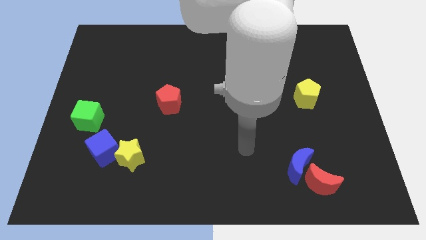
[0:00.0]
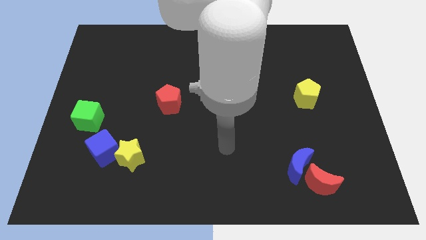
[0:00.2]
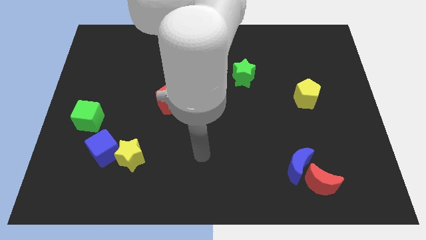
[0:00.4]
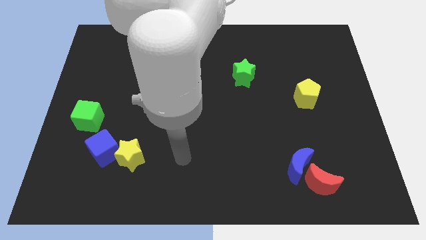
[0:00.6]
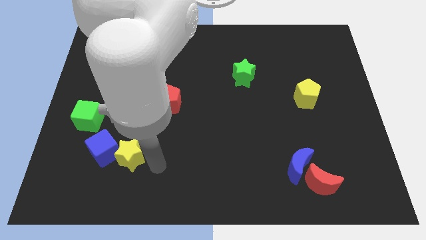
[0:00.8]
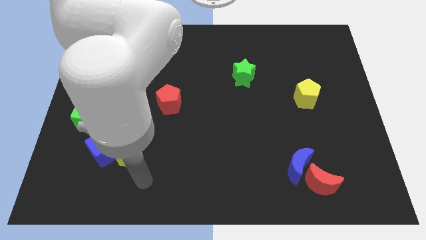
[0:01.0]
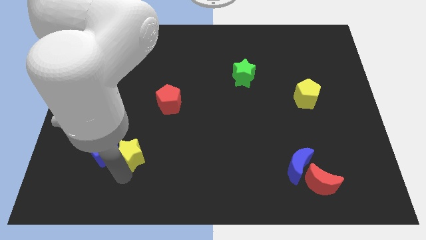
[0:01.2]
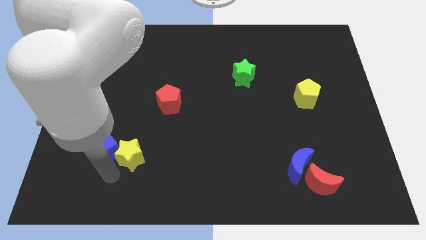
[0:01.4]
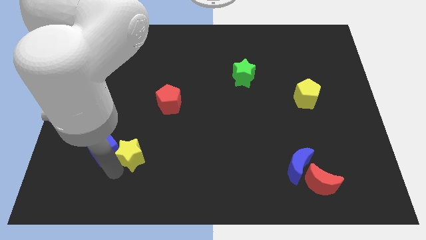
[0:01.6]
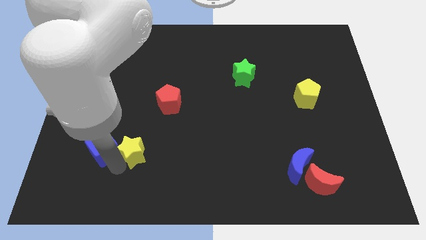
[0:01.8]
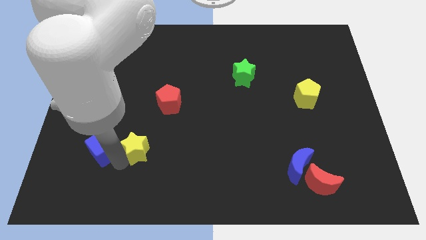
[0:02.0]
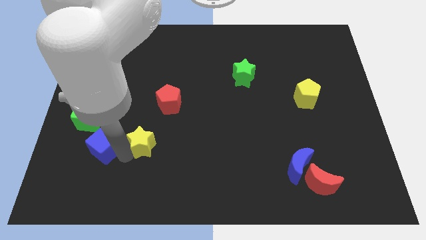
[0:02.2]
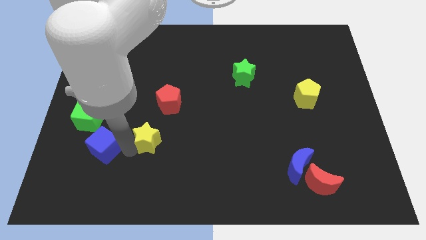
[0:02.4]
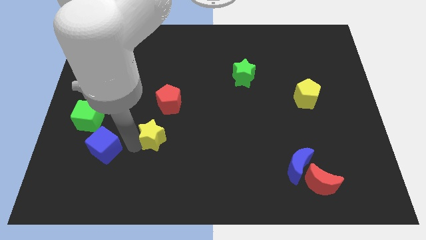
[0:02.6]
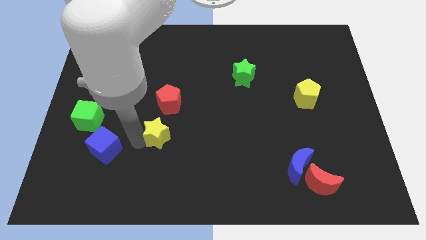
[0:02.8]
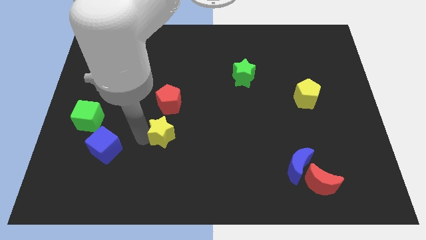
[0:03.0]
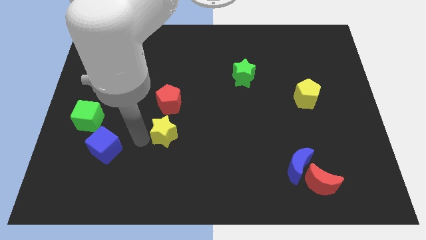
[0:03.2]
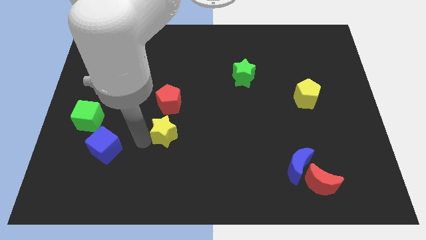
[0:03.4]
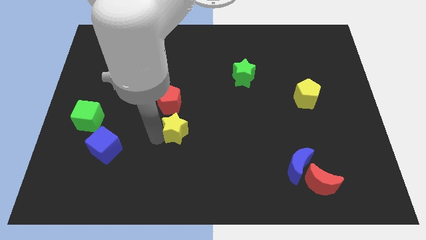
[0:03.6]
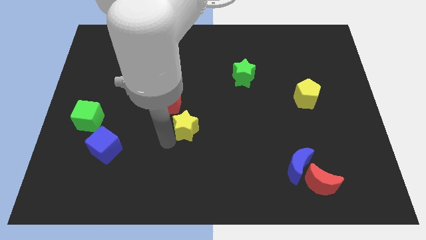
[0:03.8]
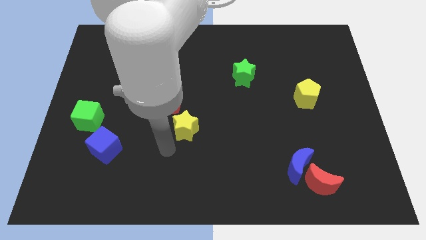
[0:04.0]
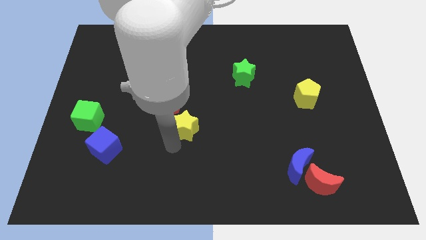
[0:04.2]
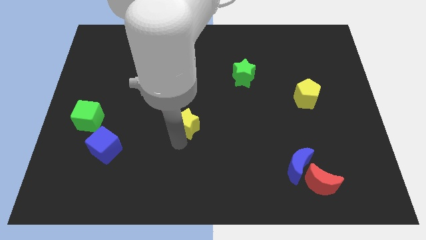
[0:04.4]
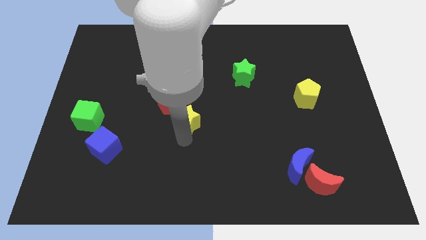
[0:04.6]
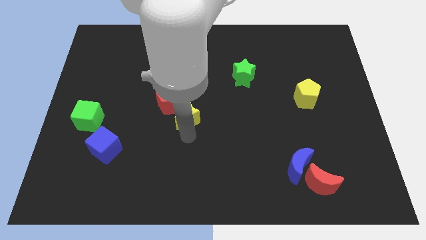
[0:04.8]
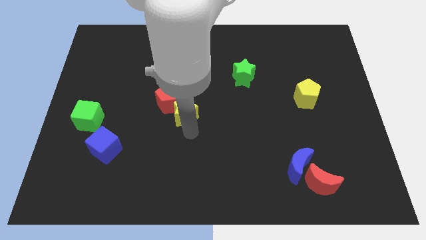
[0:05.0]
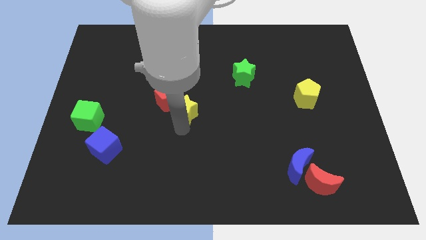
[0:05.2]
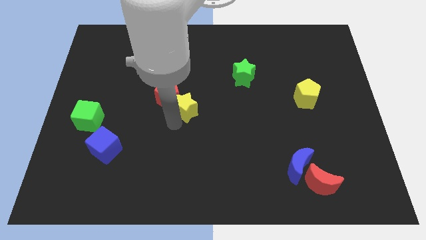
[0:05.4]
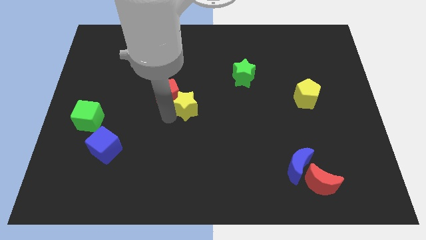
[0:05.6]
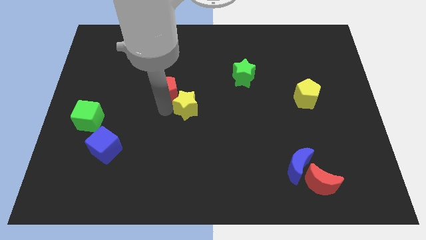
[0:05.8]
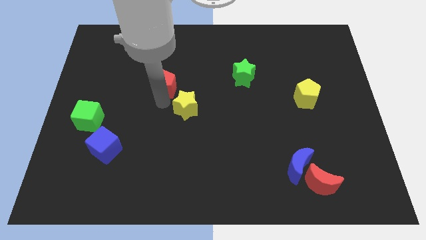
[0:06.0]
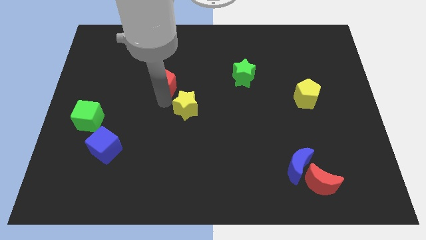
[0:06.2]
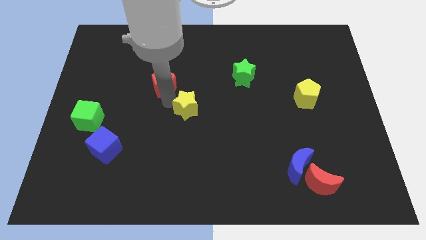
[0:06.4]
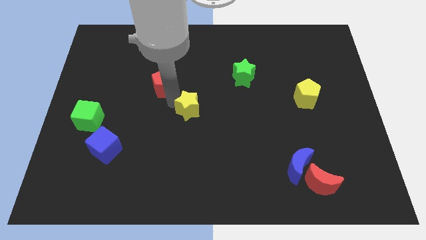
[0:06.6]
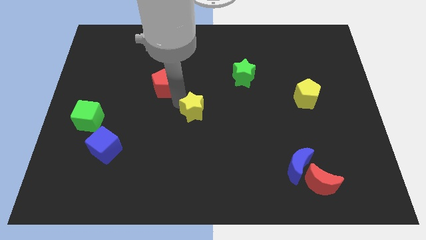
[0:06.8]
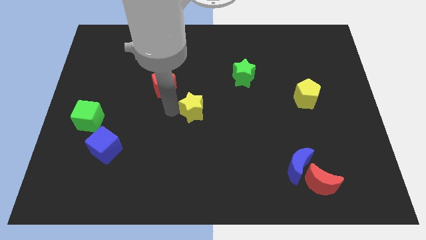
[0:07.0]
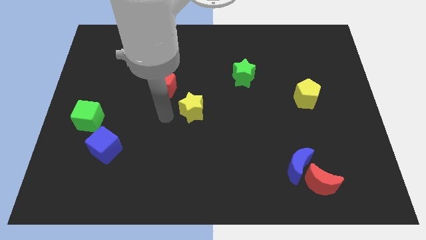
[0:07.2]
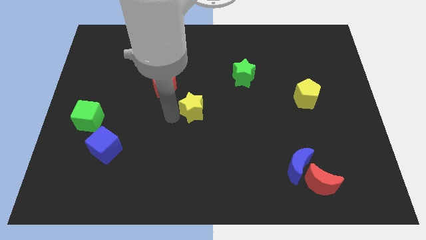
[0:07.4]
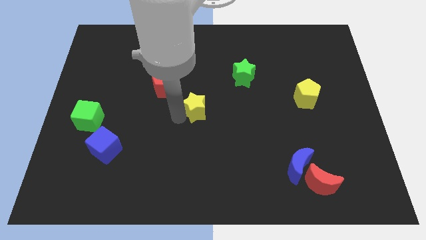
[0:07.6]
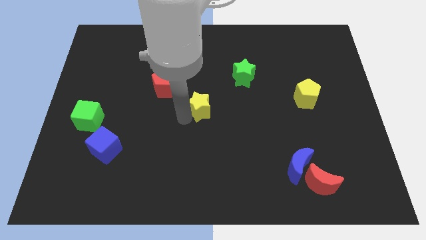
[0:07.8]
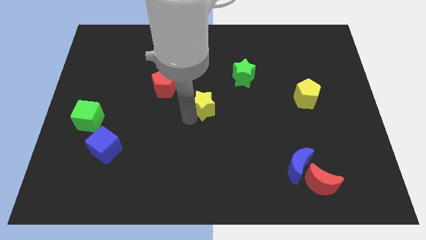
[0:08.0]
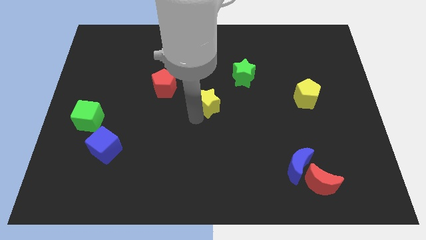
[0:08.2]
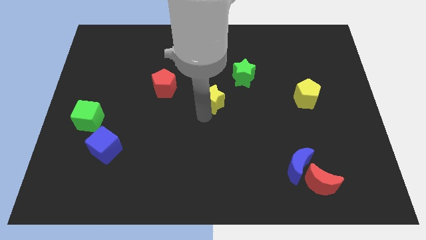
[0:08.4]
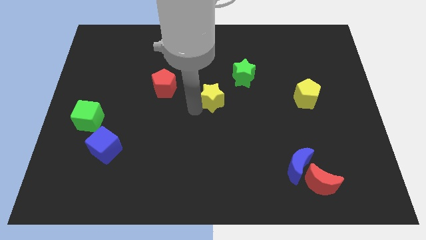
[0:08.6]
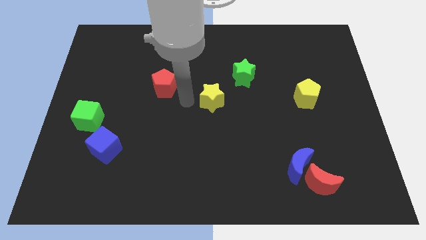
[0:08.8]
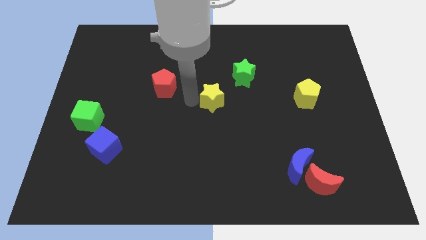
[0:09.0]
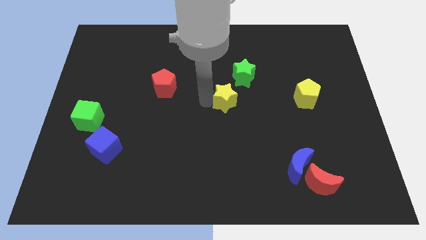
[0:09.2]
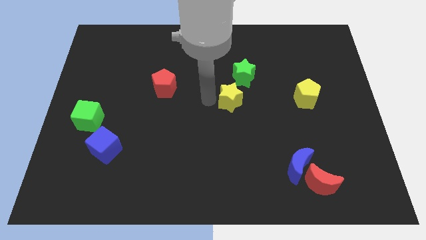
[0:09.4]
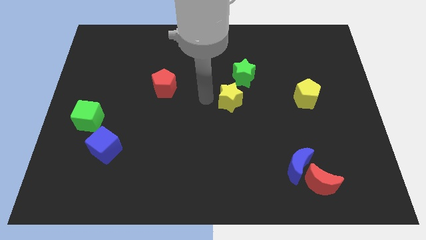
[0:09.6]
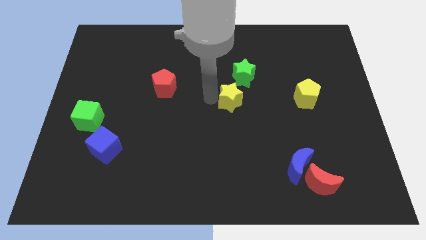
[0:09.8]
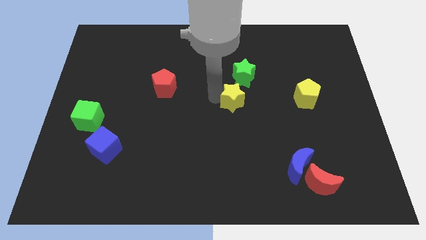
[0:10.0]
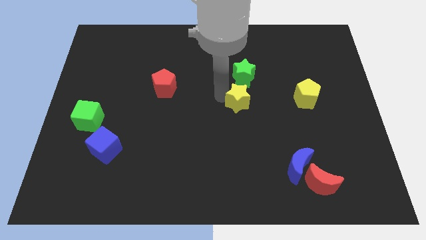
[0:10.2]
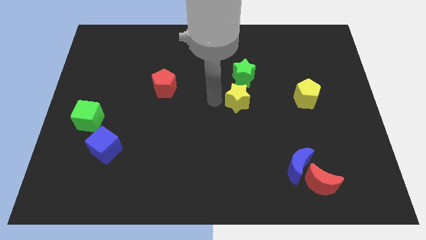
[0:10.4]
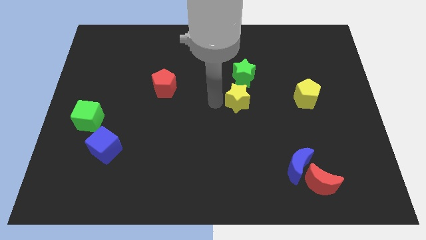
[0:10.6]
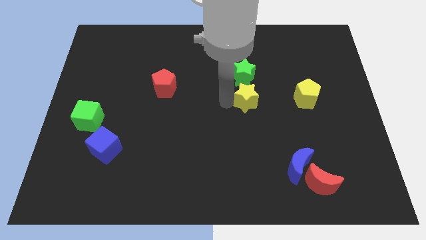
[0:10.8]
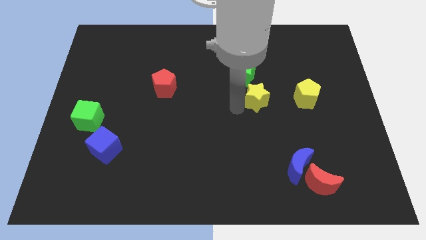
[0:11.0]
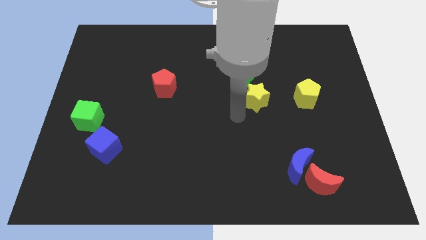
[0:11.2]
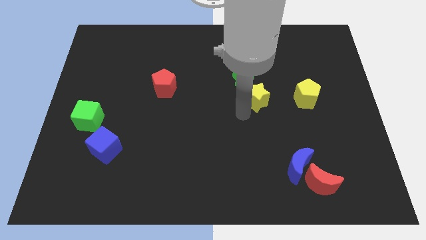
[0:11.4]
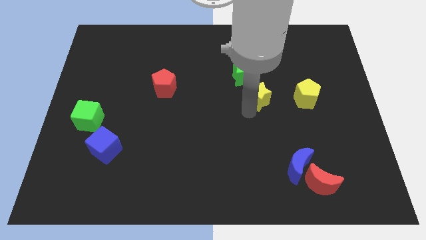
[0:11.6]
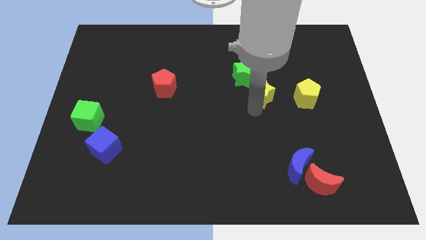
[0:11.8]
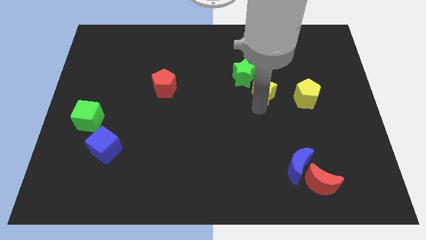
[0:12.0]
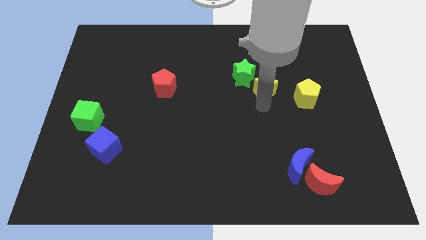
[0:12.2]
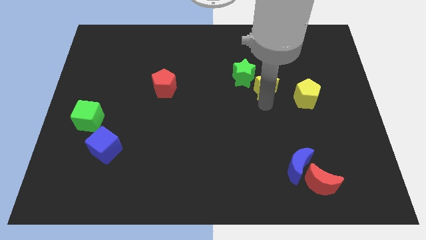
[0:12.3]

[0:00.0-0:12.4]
put the yellow star right of the green star
